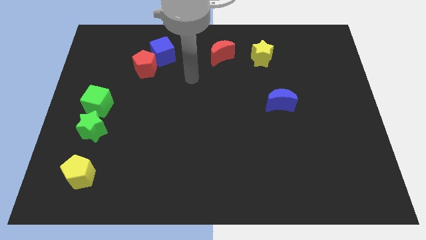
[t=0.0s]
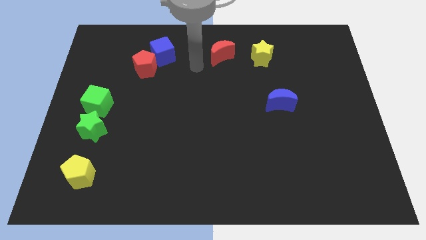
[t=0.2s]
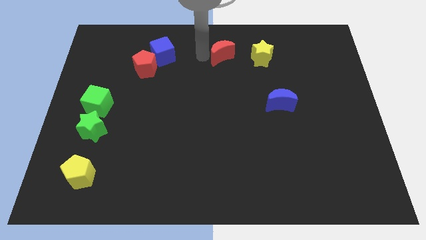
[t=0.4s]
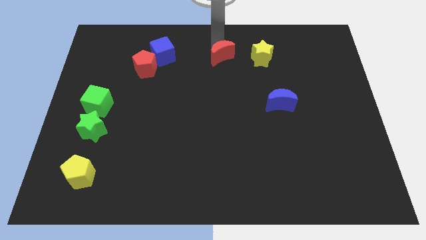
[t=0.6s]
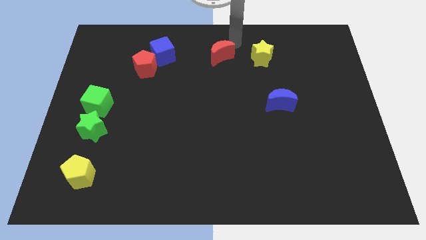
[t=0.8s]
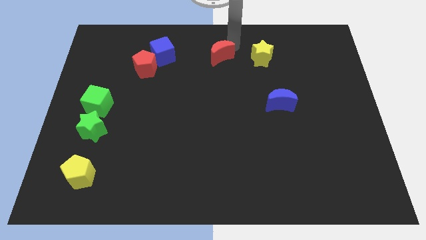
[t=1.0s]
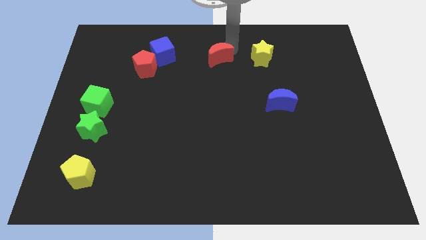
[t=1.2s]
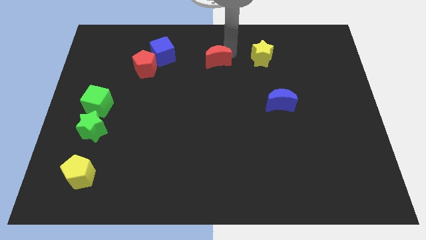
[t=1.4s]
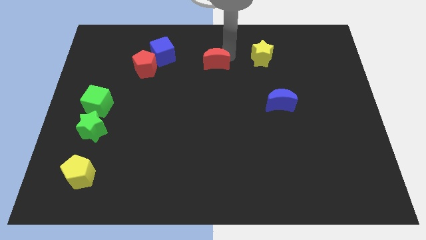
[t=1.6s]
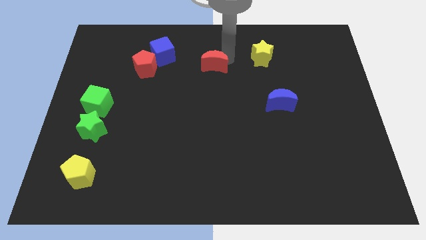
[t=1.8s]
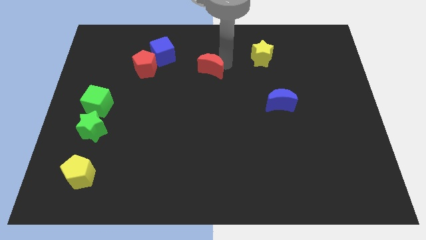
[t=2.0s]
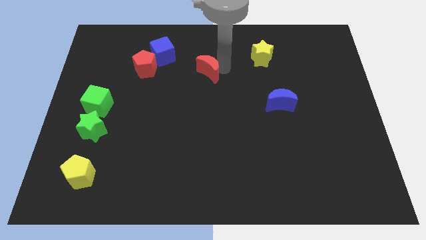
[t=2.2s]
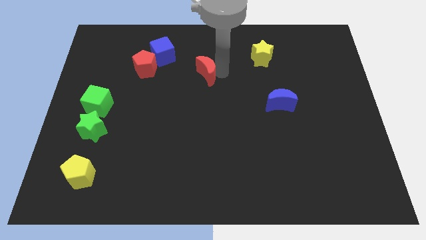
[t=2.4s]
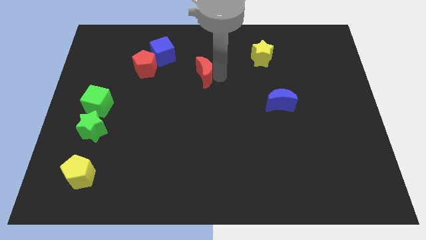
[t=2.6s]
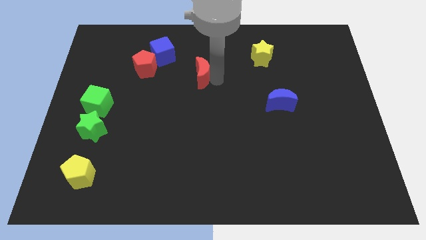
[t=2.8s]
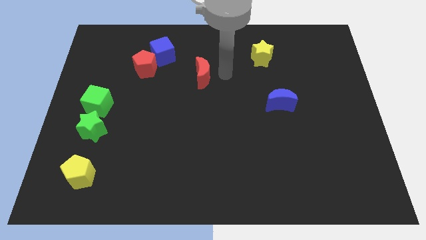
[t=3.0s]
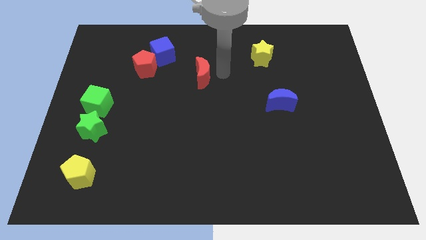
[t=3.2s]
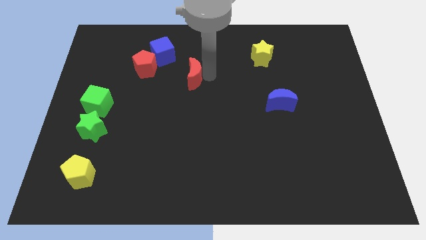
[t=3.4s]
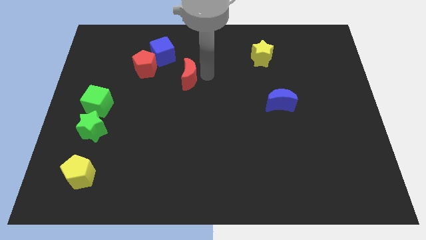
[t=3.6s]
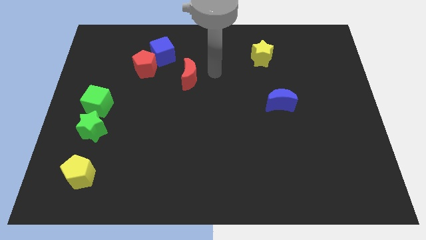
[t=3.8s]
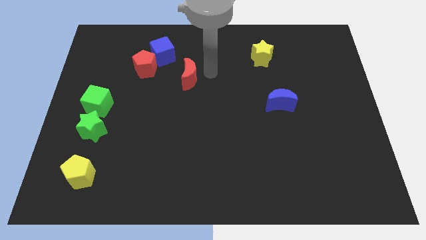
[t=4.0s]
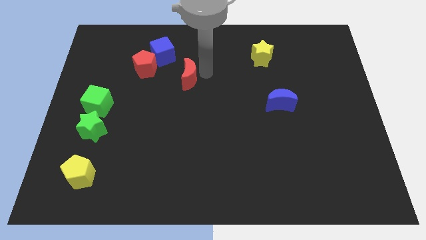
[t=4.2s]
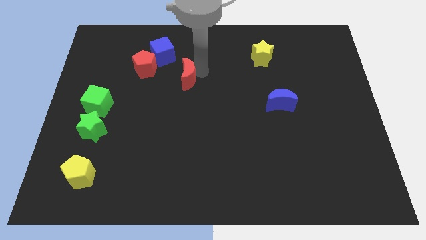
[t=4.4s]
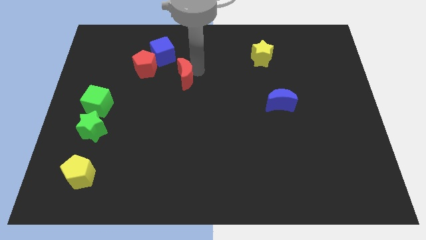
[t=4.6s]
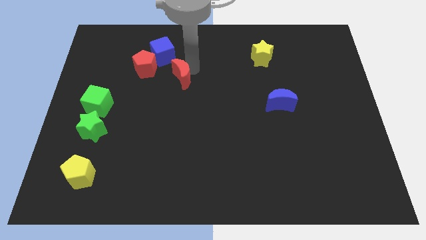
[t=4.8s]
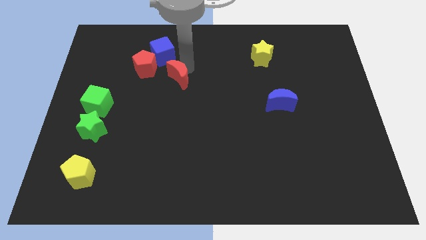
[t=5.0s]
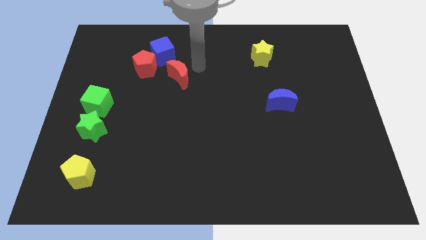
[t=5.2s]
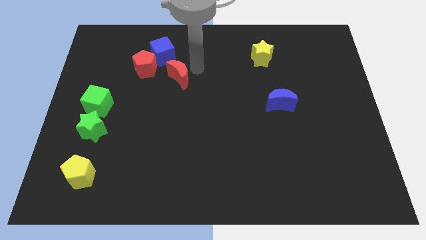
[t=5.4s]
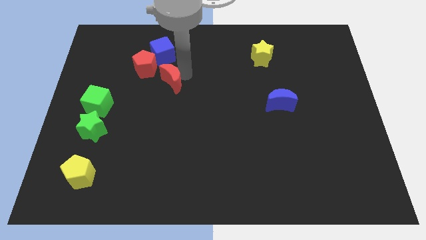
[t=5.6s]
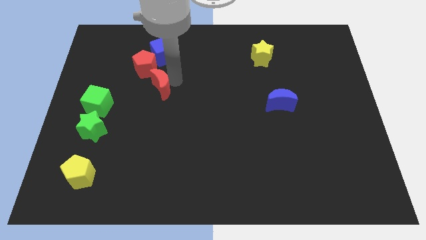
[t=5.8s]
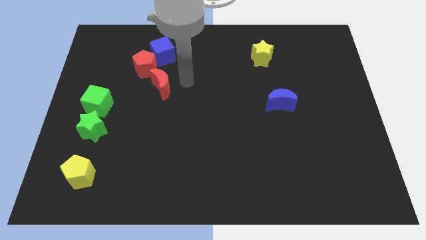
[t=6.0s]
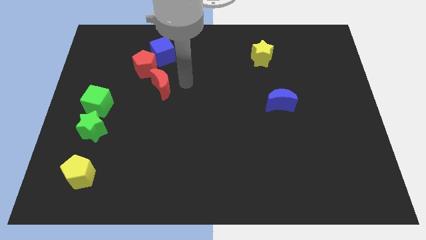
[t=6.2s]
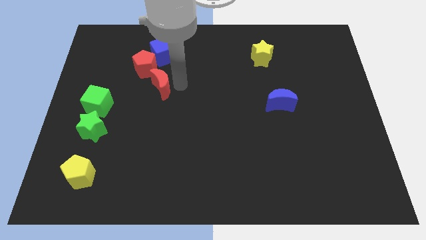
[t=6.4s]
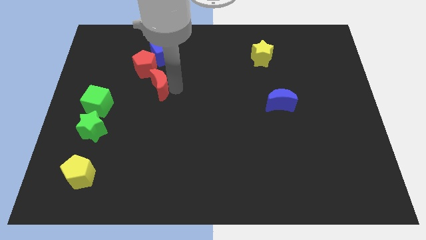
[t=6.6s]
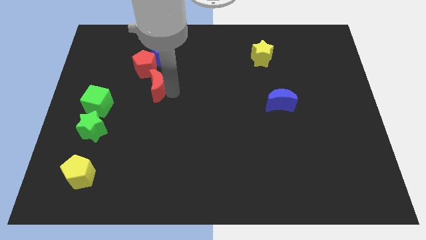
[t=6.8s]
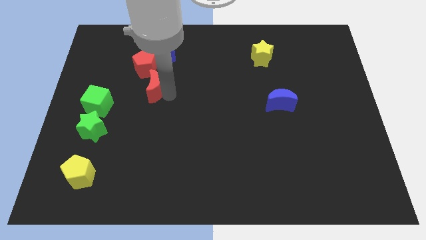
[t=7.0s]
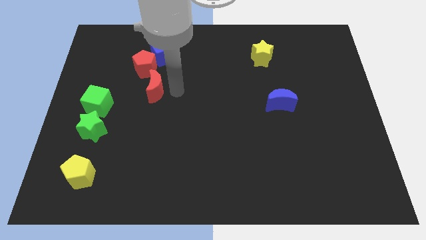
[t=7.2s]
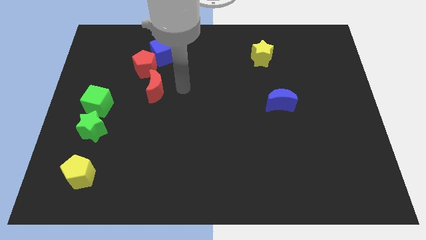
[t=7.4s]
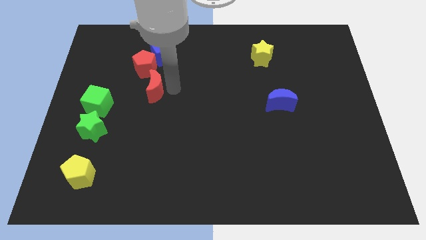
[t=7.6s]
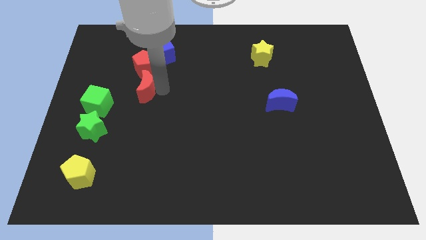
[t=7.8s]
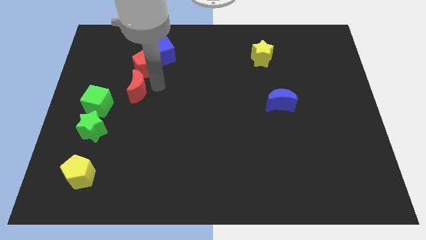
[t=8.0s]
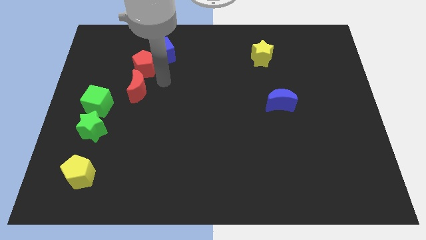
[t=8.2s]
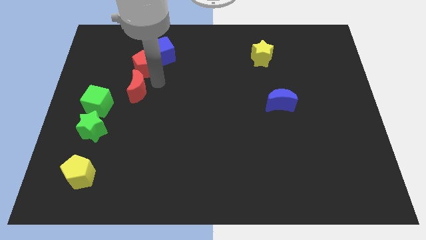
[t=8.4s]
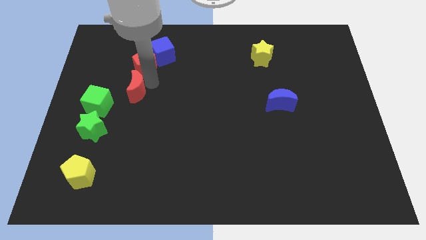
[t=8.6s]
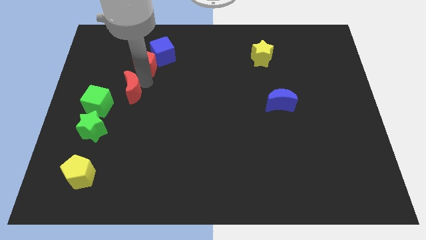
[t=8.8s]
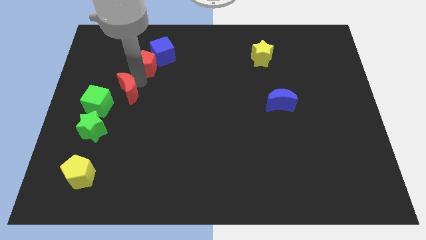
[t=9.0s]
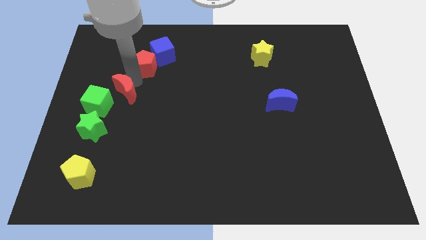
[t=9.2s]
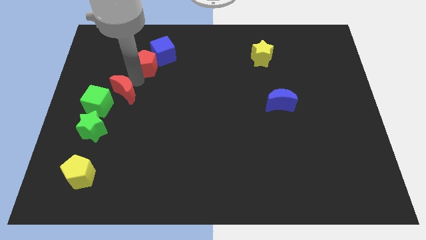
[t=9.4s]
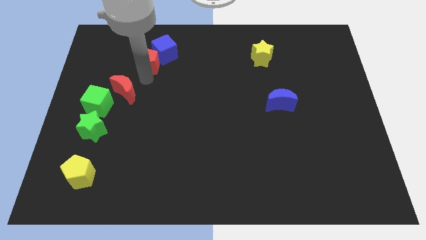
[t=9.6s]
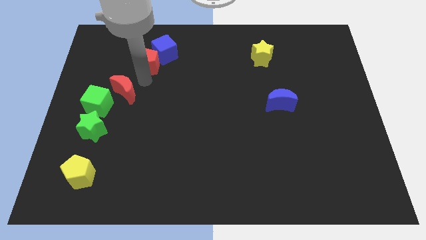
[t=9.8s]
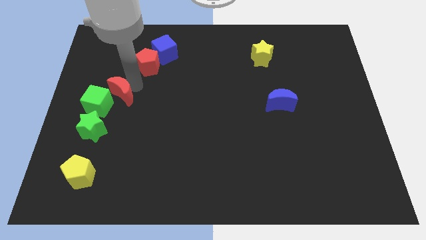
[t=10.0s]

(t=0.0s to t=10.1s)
move the red moon towards the green cube

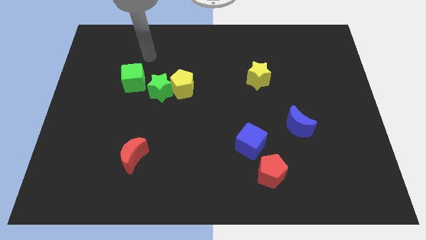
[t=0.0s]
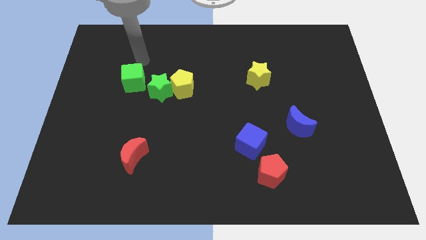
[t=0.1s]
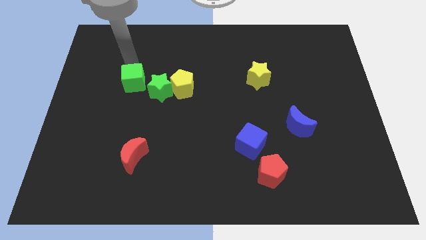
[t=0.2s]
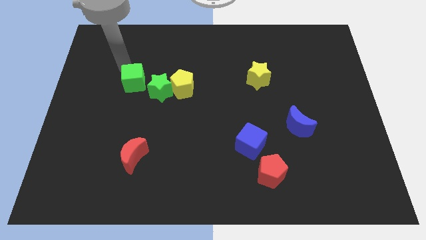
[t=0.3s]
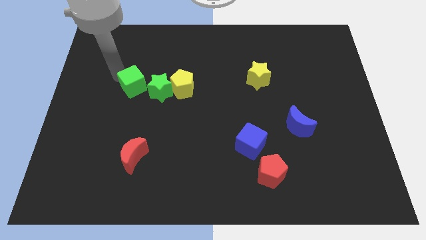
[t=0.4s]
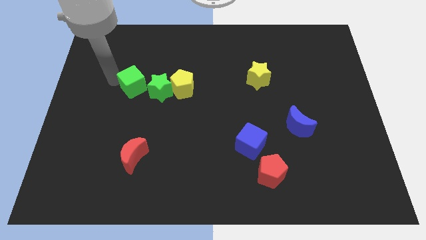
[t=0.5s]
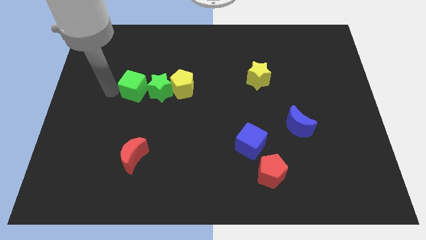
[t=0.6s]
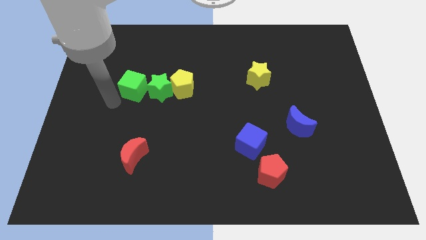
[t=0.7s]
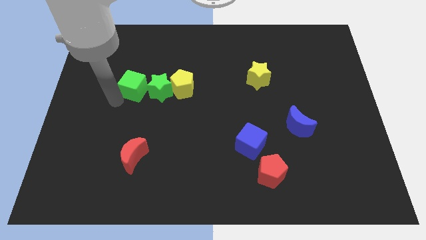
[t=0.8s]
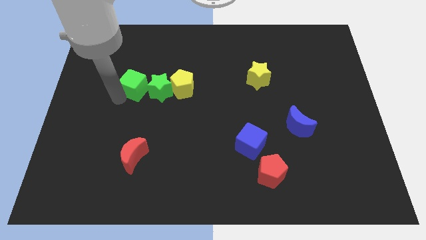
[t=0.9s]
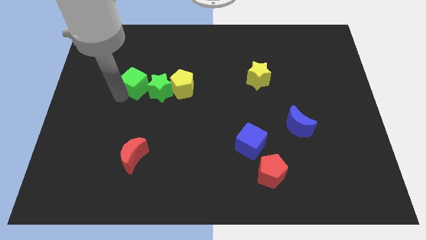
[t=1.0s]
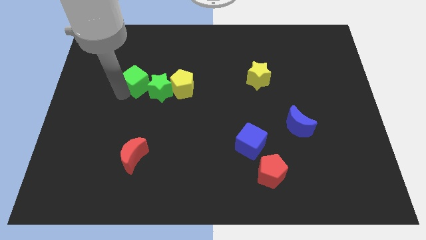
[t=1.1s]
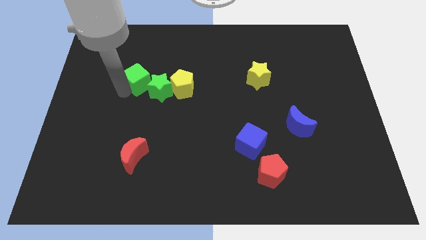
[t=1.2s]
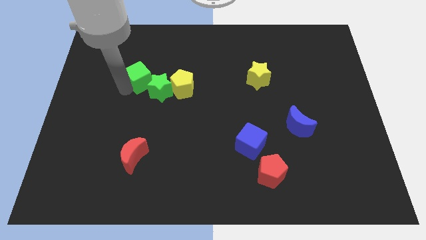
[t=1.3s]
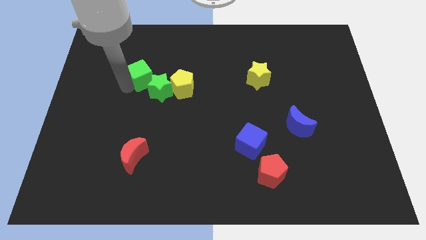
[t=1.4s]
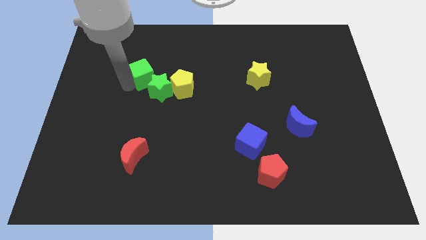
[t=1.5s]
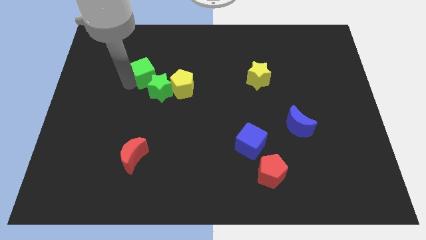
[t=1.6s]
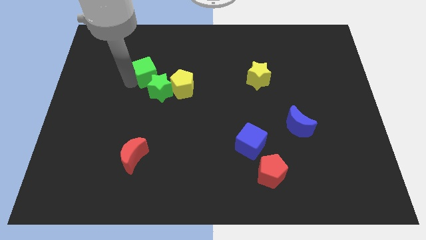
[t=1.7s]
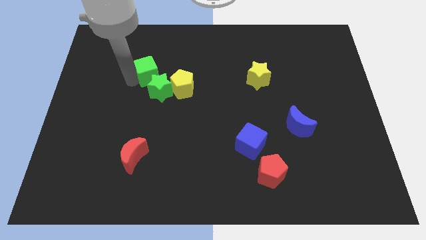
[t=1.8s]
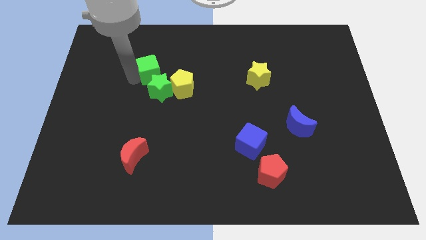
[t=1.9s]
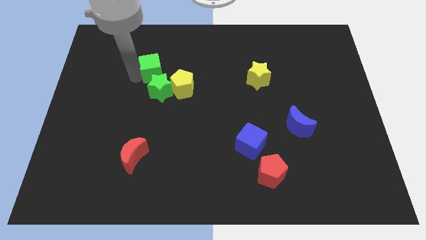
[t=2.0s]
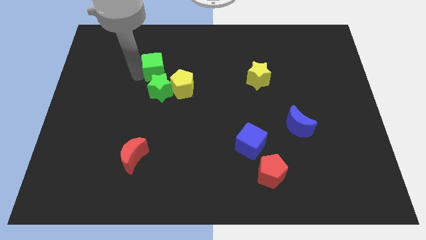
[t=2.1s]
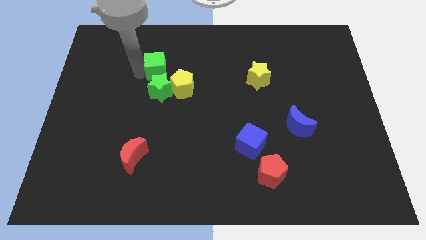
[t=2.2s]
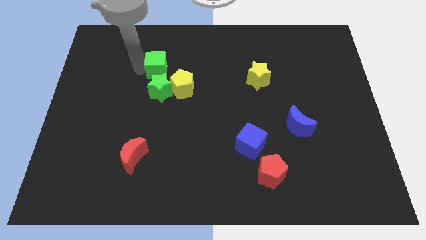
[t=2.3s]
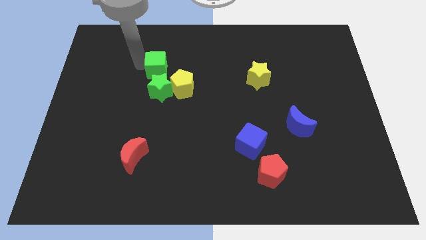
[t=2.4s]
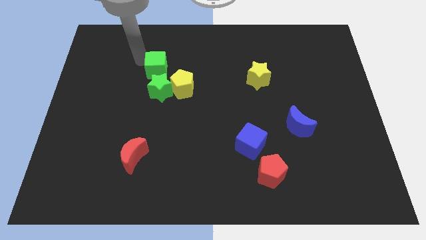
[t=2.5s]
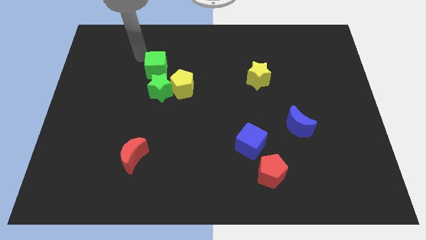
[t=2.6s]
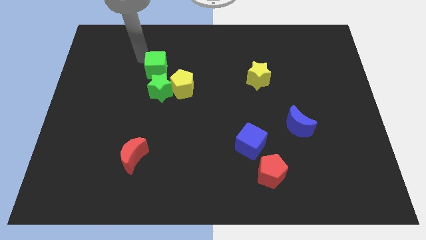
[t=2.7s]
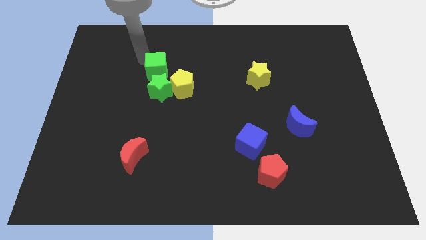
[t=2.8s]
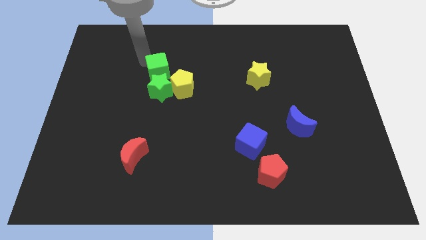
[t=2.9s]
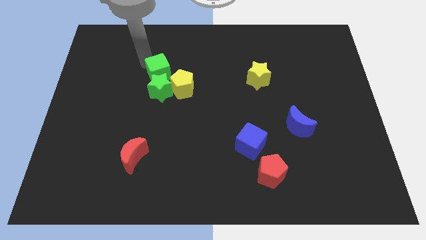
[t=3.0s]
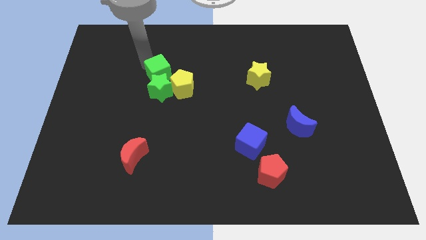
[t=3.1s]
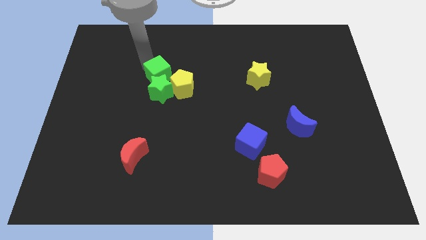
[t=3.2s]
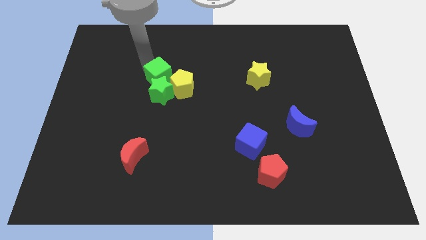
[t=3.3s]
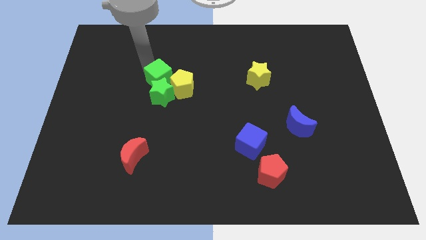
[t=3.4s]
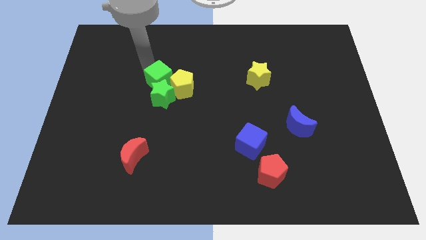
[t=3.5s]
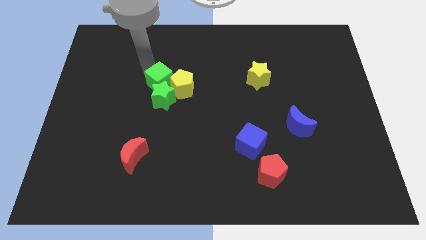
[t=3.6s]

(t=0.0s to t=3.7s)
put the green cube close to the yellow pentagon
